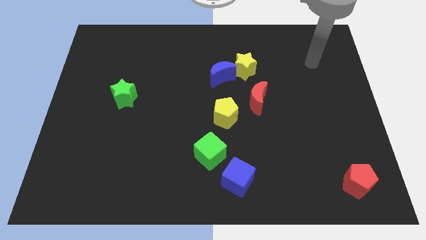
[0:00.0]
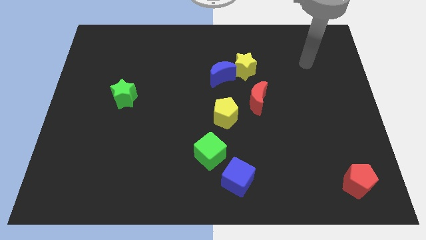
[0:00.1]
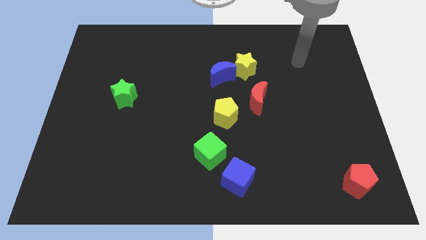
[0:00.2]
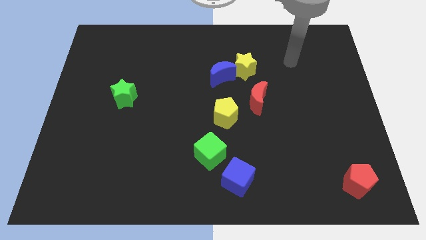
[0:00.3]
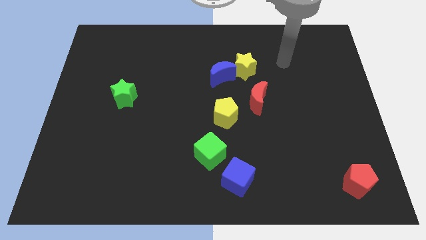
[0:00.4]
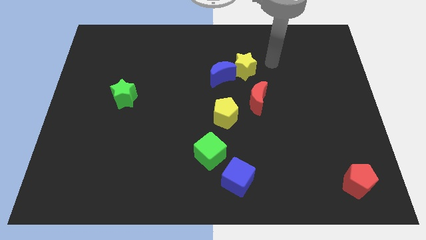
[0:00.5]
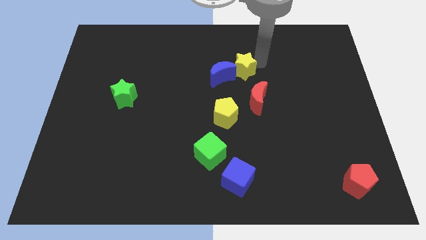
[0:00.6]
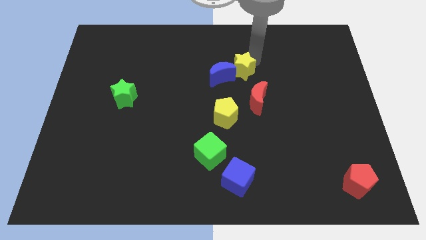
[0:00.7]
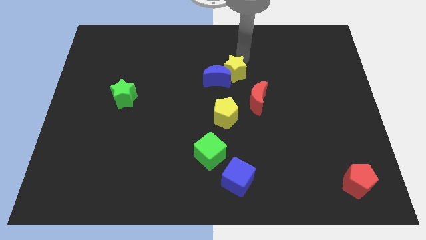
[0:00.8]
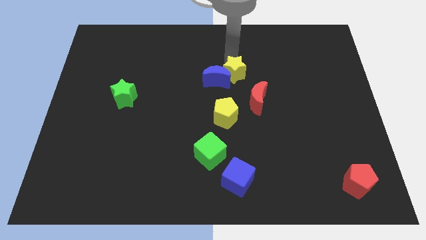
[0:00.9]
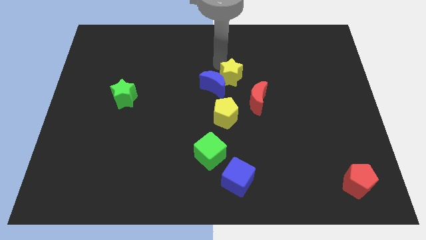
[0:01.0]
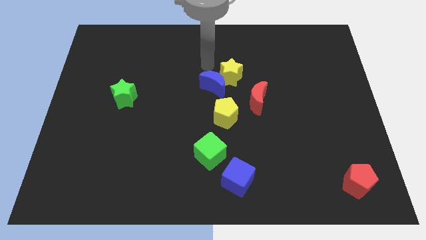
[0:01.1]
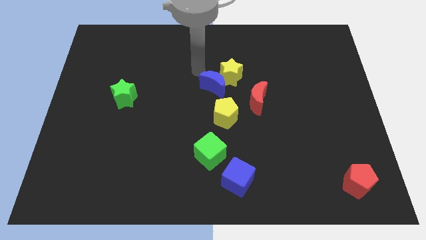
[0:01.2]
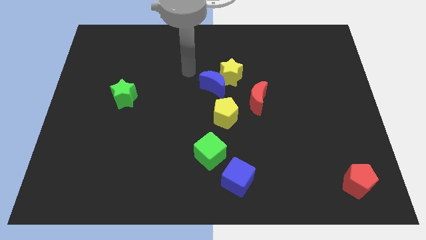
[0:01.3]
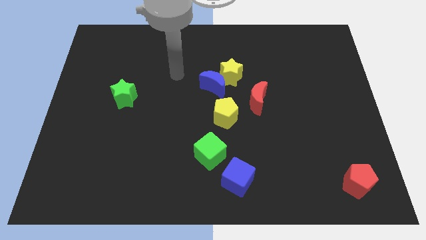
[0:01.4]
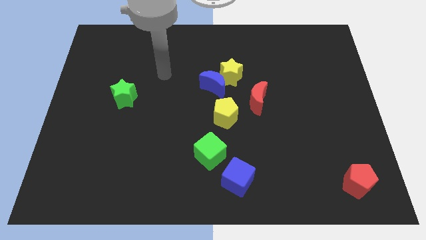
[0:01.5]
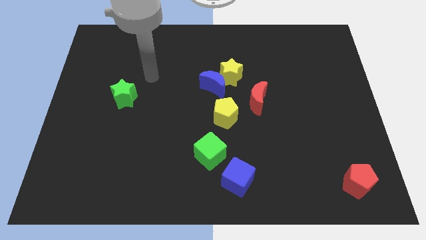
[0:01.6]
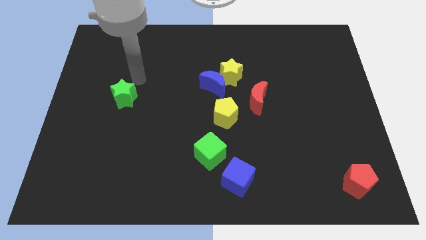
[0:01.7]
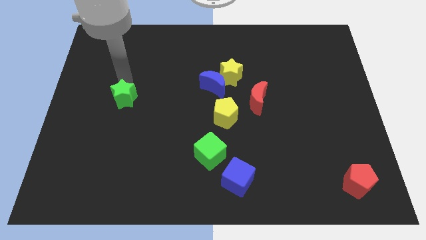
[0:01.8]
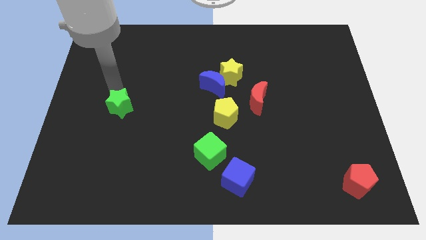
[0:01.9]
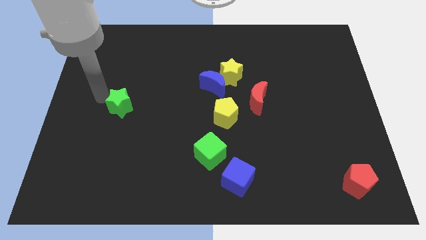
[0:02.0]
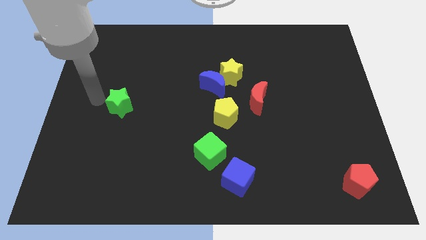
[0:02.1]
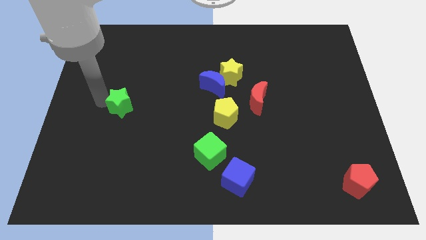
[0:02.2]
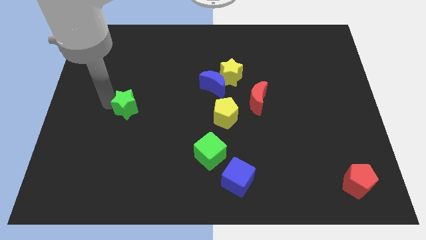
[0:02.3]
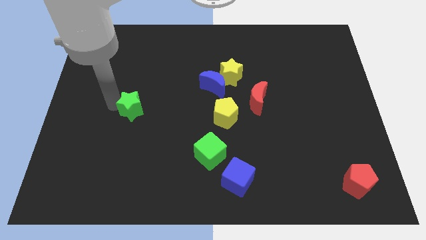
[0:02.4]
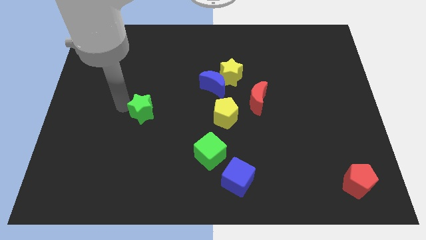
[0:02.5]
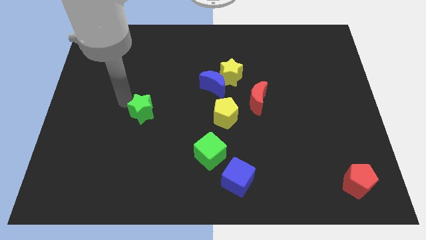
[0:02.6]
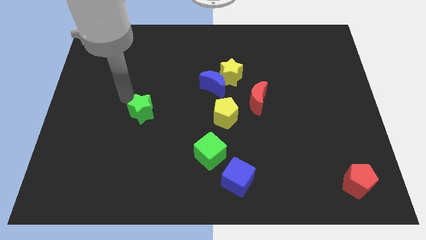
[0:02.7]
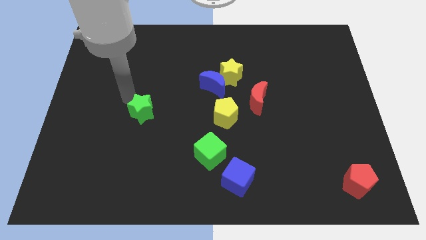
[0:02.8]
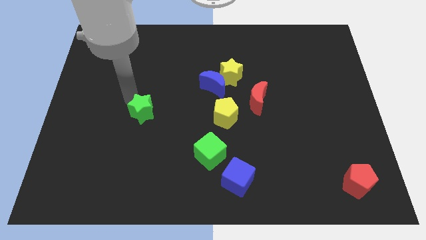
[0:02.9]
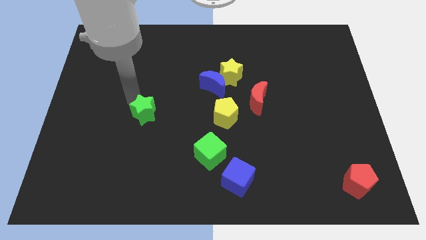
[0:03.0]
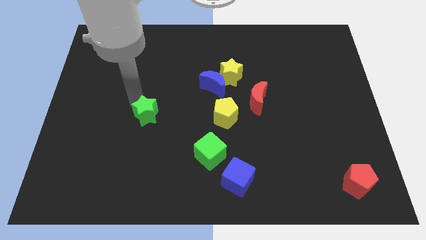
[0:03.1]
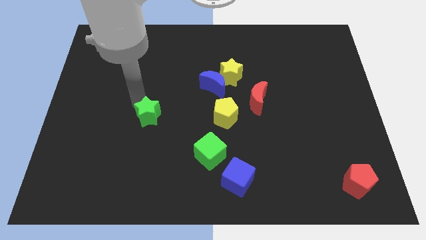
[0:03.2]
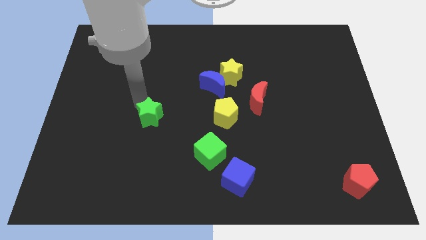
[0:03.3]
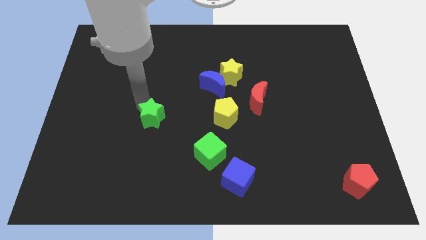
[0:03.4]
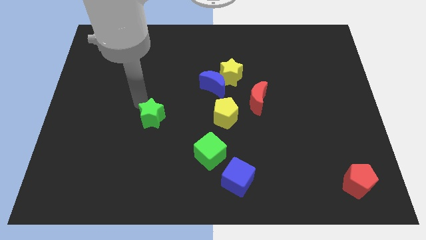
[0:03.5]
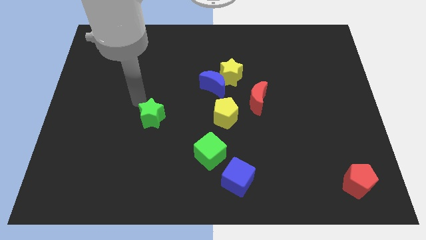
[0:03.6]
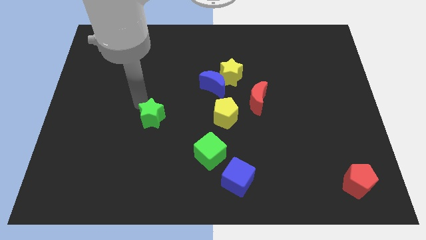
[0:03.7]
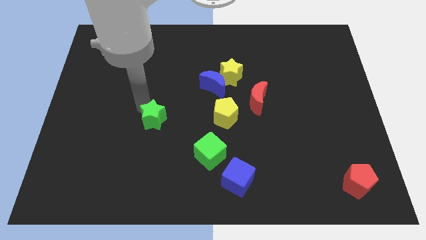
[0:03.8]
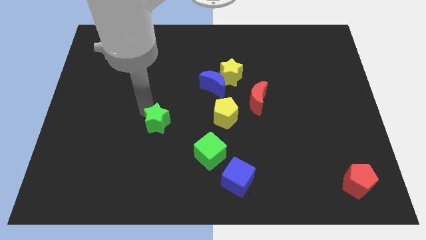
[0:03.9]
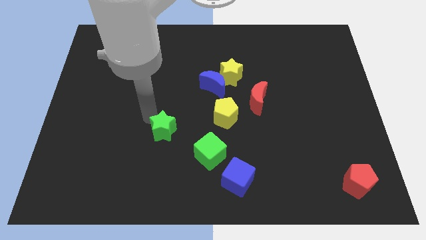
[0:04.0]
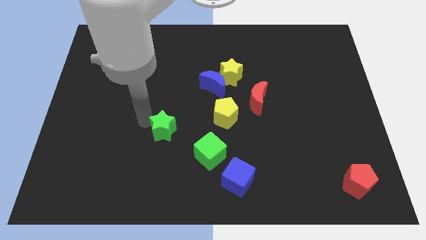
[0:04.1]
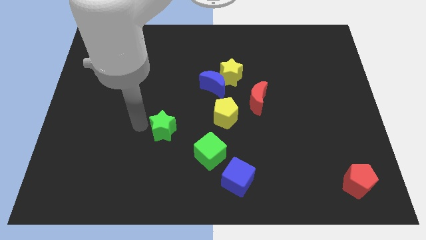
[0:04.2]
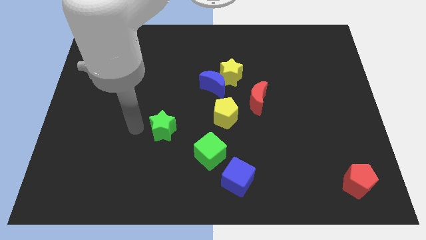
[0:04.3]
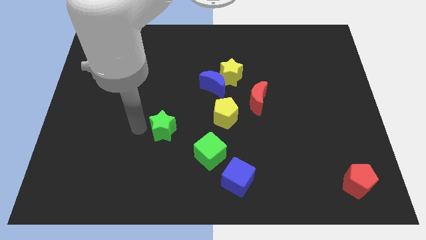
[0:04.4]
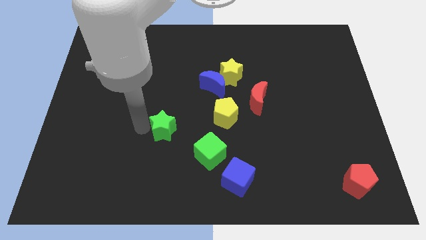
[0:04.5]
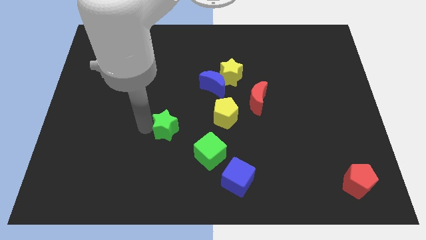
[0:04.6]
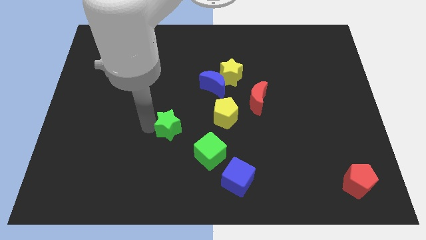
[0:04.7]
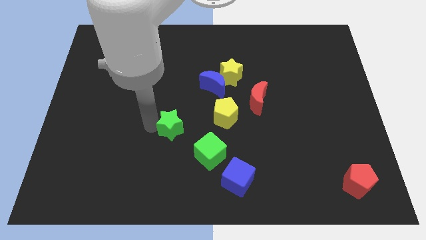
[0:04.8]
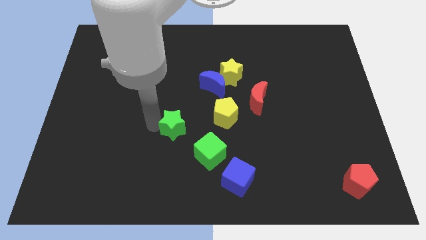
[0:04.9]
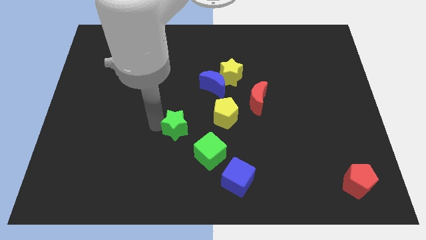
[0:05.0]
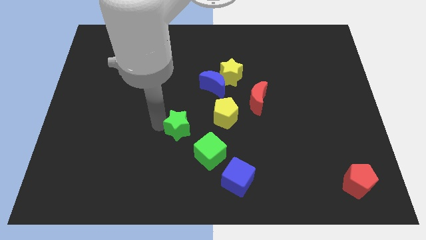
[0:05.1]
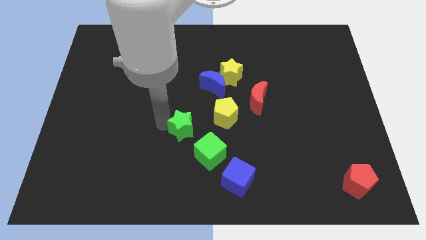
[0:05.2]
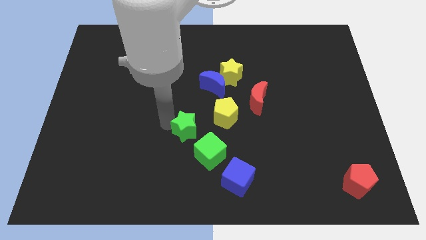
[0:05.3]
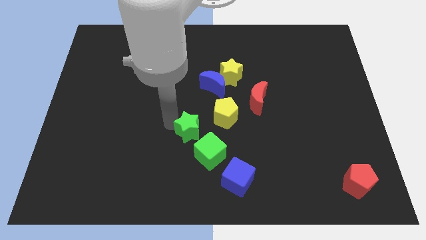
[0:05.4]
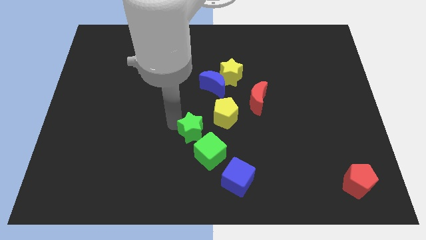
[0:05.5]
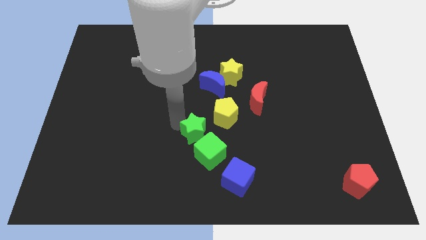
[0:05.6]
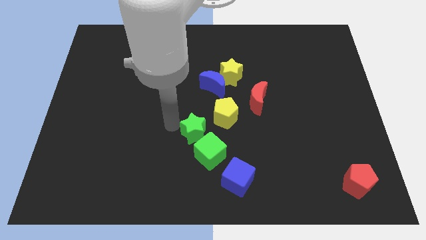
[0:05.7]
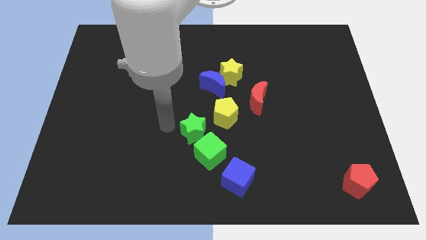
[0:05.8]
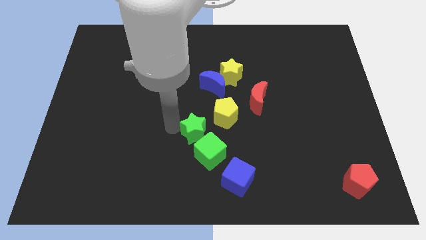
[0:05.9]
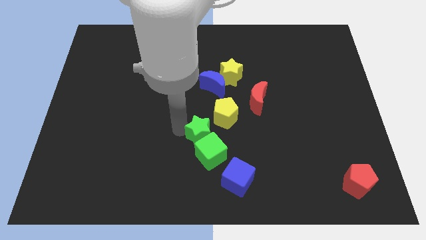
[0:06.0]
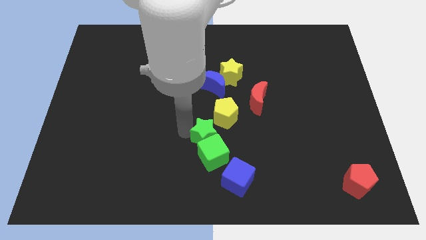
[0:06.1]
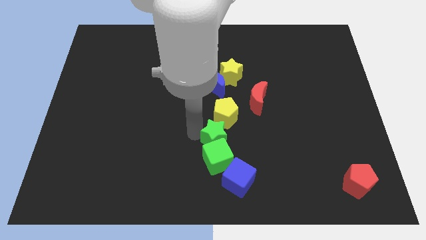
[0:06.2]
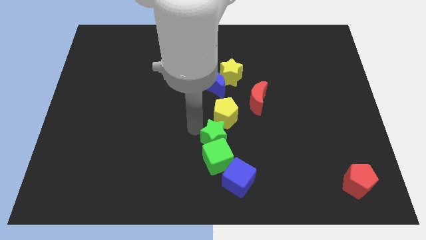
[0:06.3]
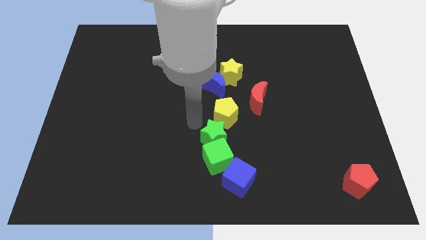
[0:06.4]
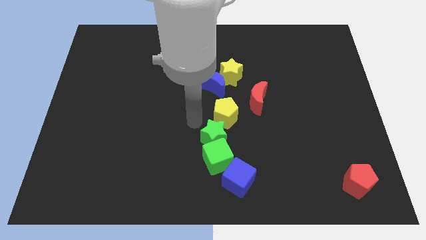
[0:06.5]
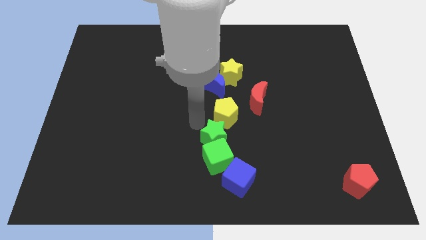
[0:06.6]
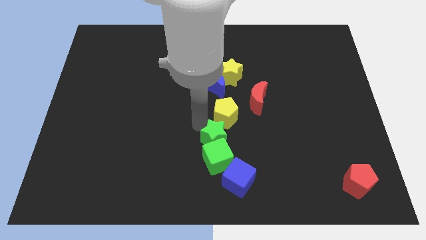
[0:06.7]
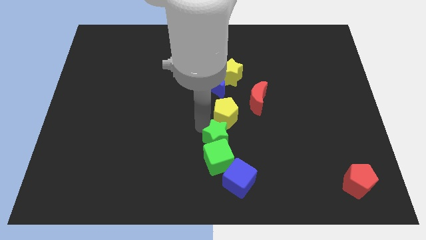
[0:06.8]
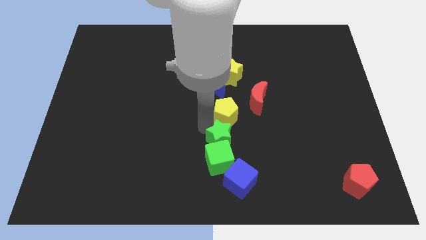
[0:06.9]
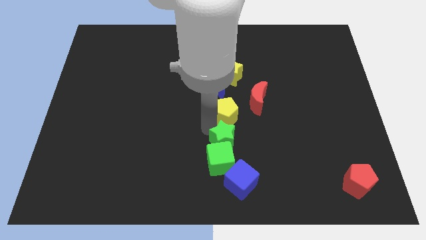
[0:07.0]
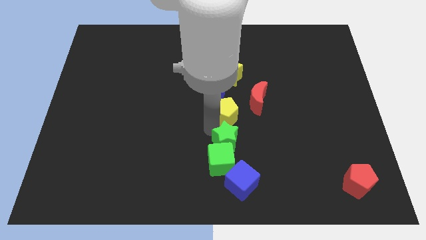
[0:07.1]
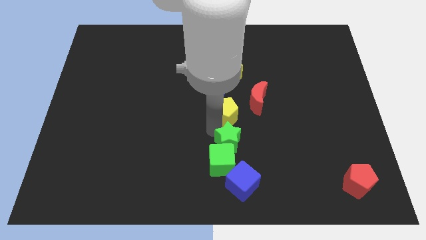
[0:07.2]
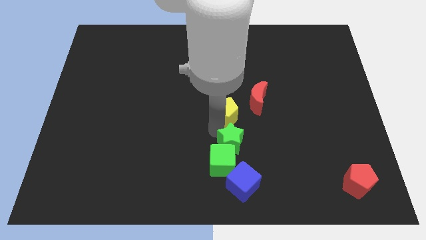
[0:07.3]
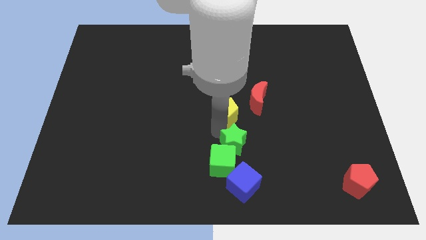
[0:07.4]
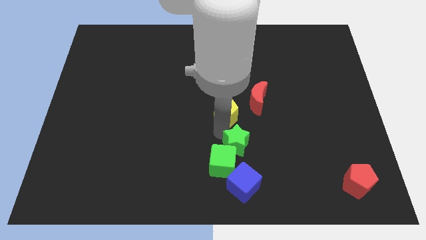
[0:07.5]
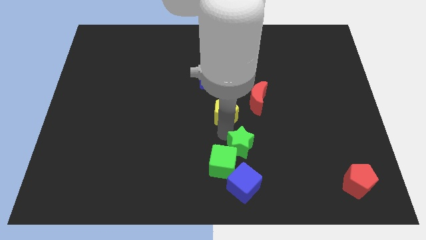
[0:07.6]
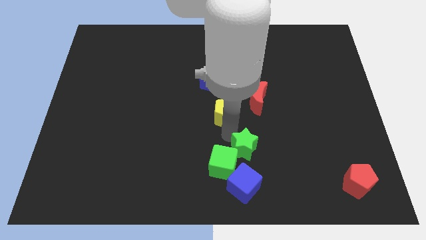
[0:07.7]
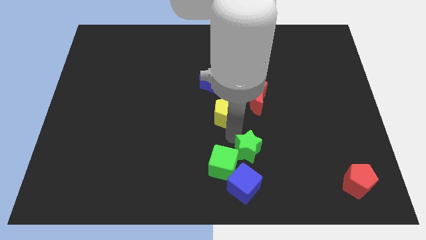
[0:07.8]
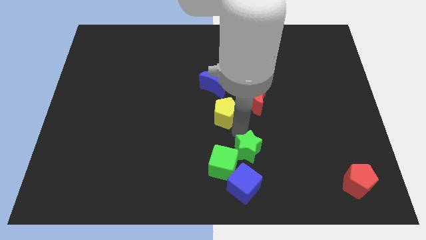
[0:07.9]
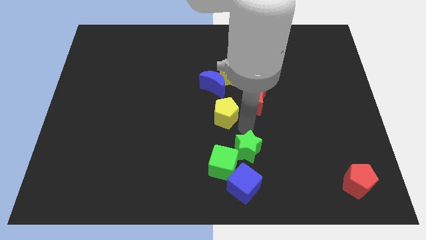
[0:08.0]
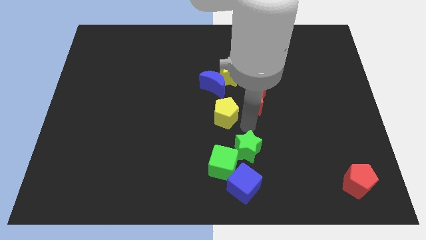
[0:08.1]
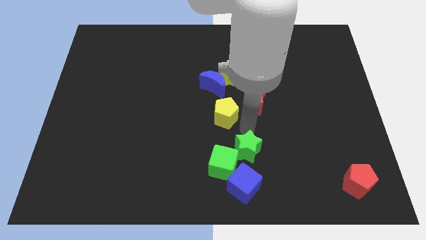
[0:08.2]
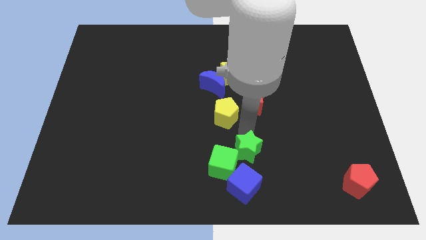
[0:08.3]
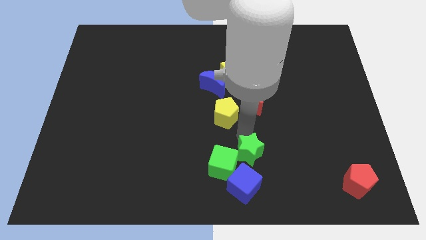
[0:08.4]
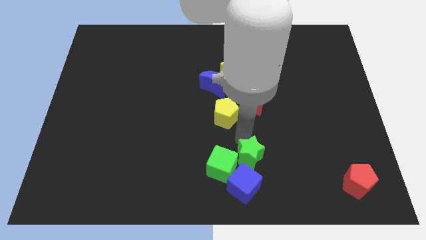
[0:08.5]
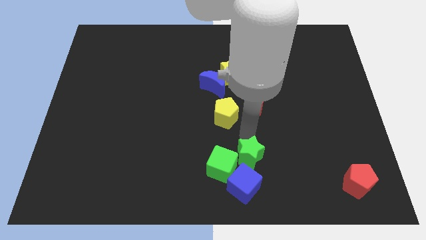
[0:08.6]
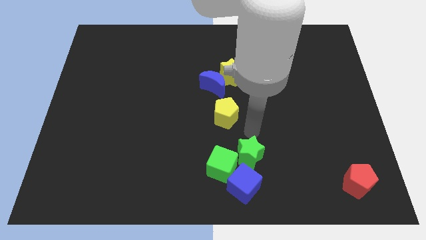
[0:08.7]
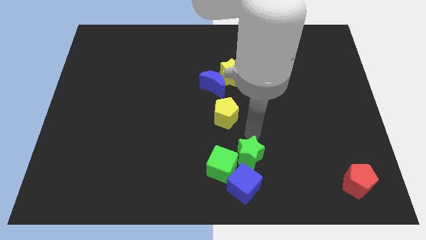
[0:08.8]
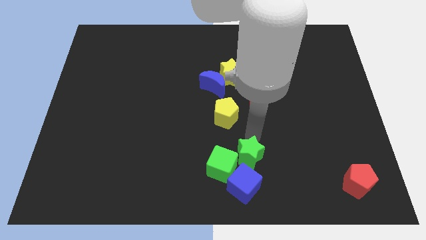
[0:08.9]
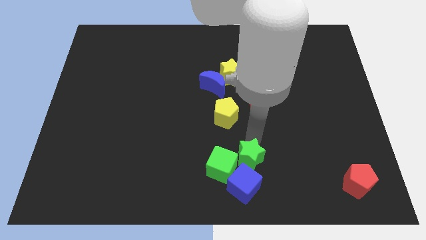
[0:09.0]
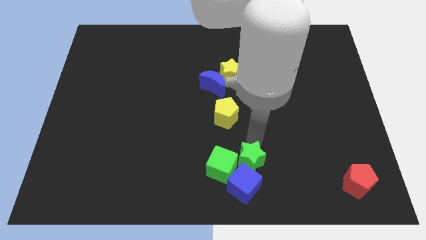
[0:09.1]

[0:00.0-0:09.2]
move the green star to the blue cube
